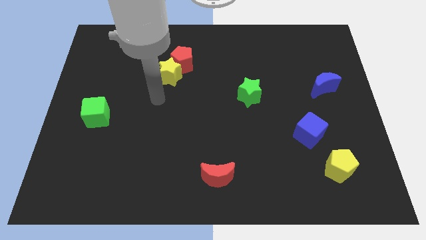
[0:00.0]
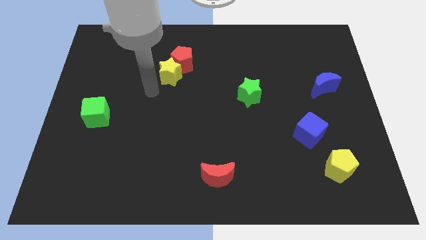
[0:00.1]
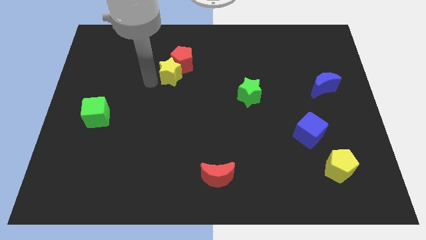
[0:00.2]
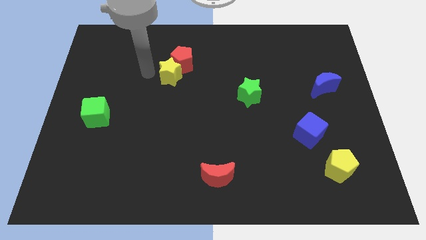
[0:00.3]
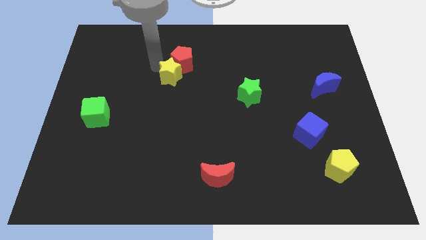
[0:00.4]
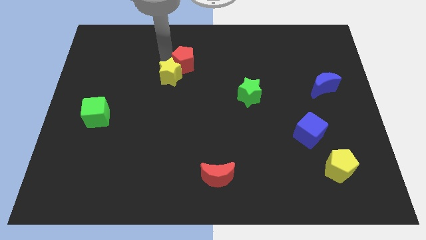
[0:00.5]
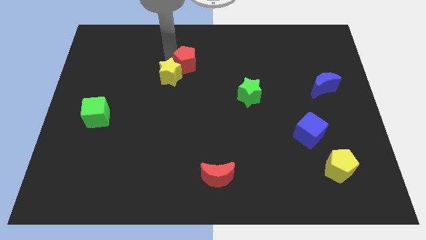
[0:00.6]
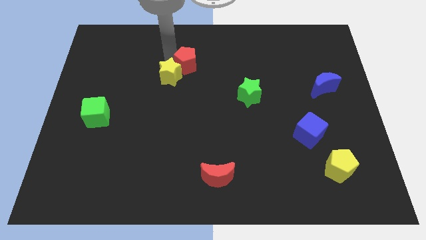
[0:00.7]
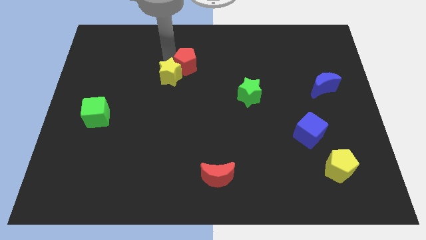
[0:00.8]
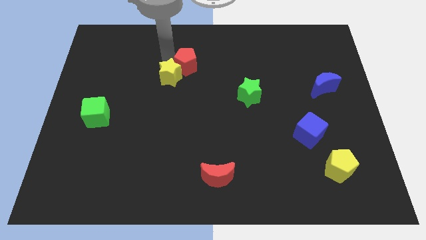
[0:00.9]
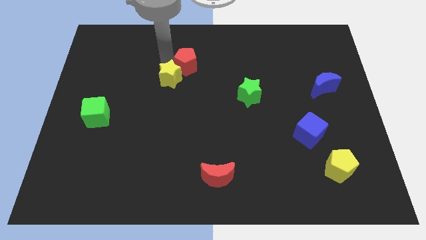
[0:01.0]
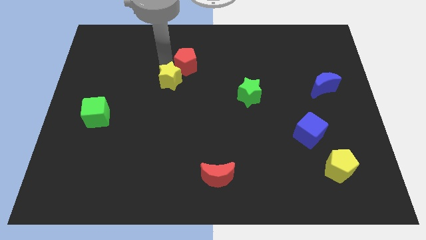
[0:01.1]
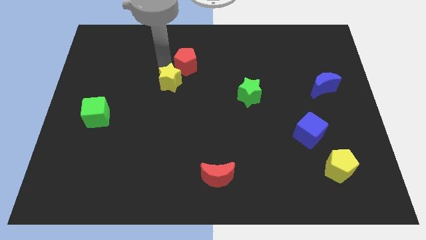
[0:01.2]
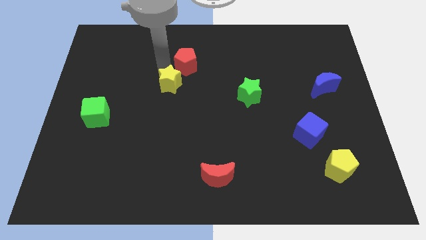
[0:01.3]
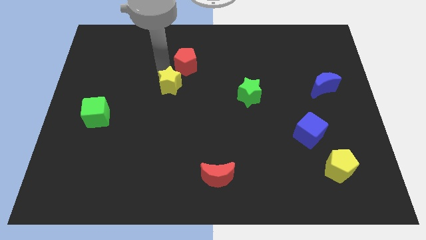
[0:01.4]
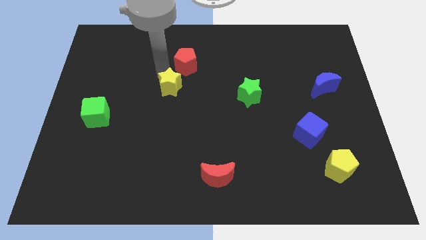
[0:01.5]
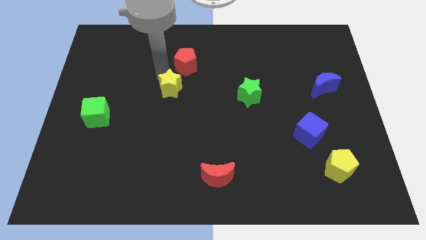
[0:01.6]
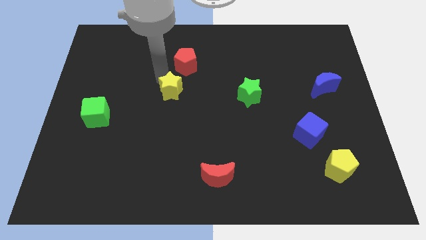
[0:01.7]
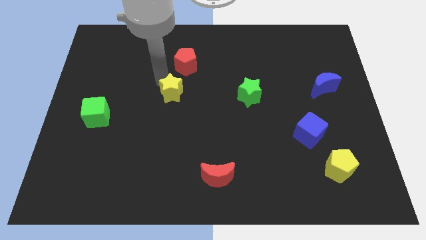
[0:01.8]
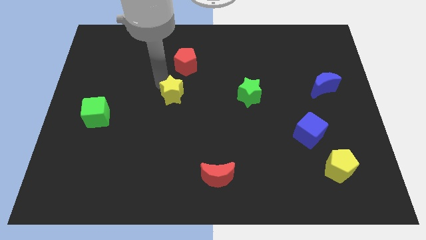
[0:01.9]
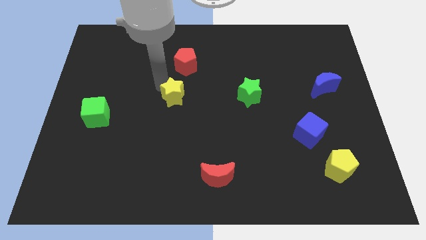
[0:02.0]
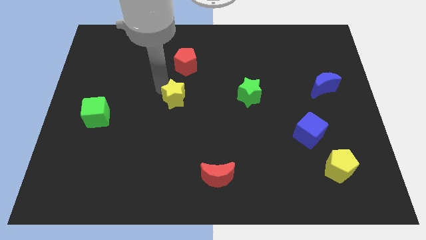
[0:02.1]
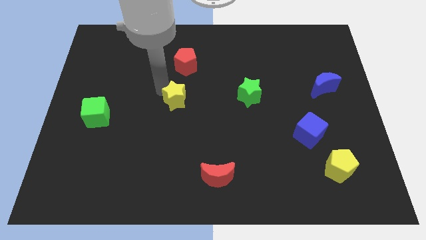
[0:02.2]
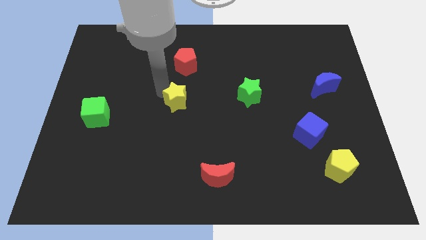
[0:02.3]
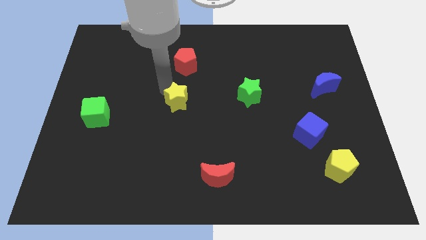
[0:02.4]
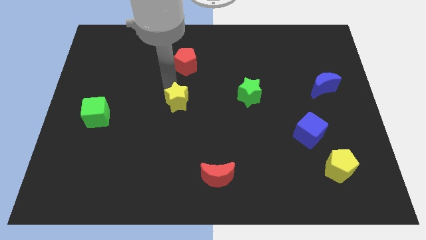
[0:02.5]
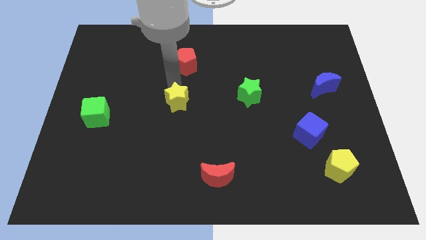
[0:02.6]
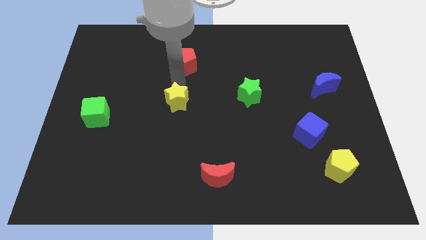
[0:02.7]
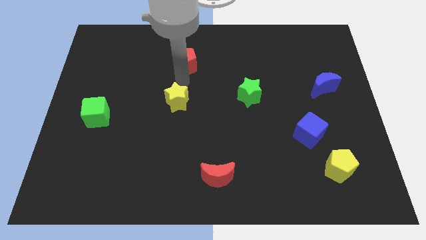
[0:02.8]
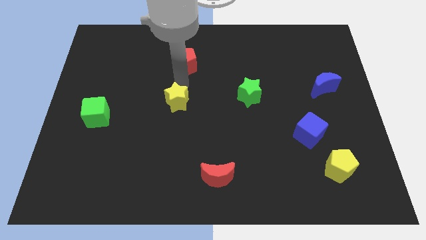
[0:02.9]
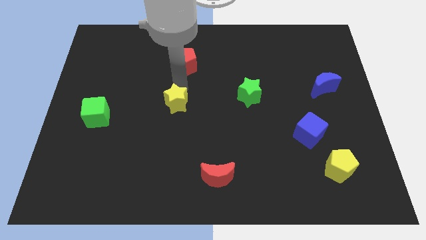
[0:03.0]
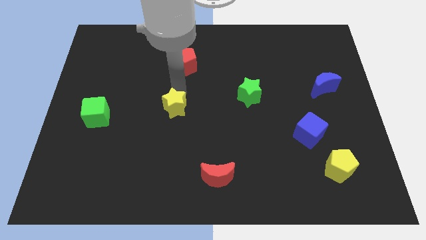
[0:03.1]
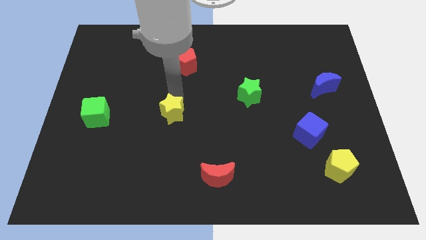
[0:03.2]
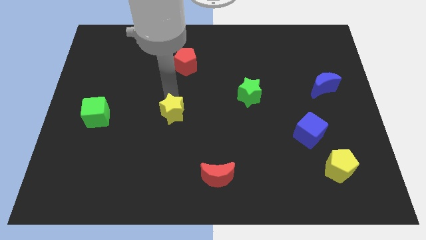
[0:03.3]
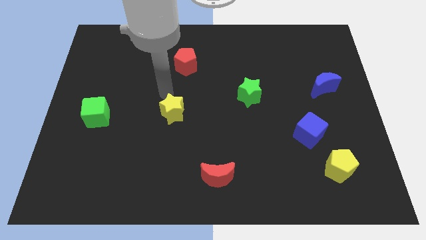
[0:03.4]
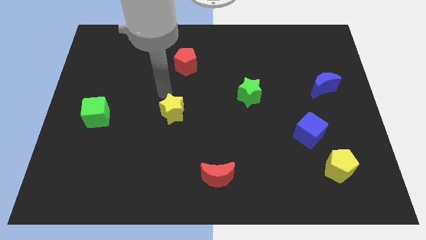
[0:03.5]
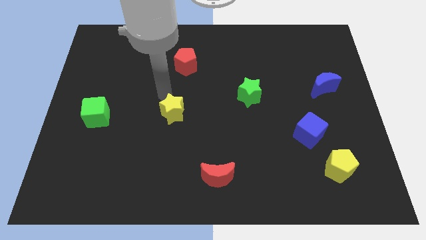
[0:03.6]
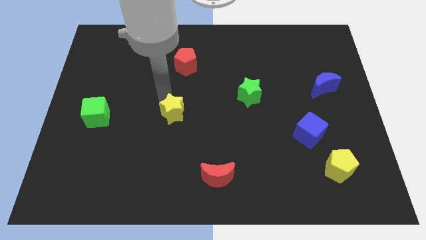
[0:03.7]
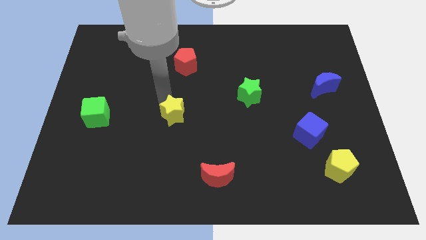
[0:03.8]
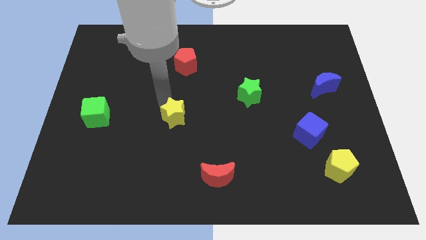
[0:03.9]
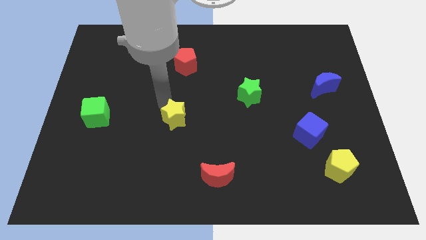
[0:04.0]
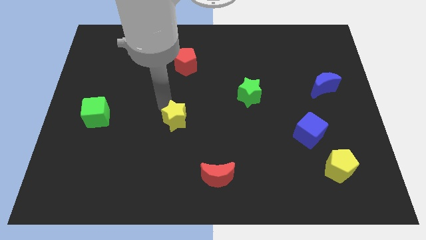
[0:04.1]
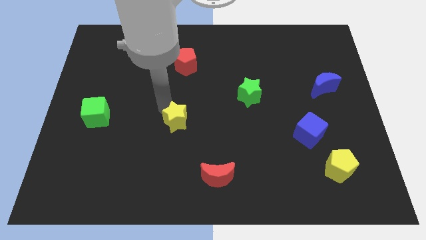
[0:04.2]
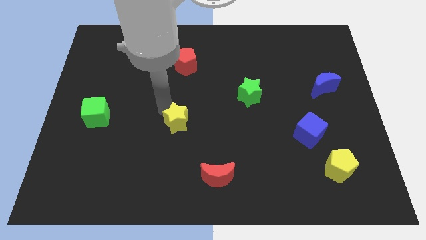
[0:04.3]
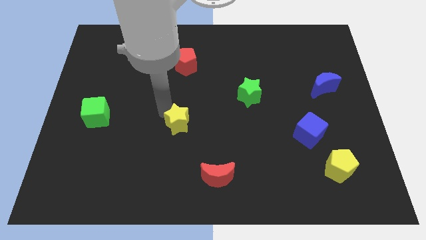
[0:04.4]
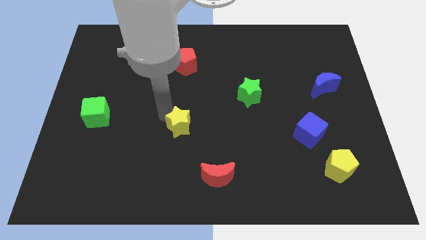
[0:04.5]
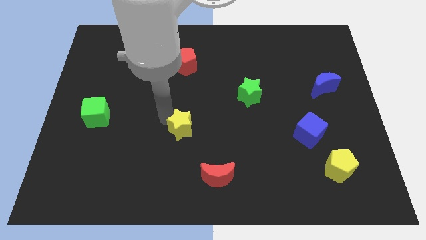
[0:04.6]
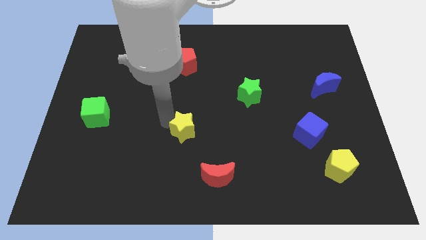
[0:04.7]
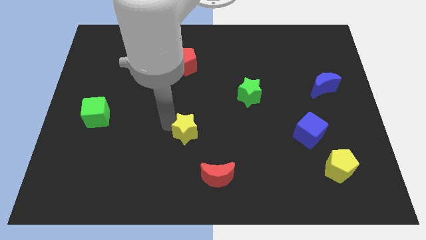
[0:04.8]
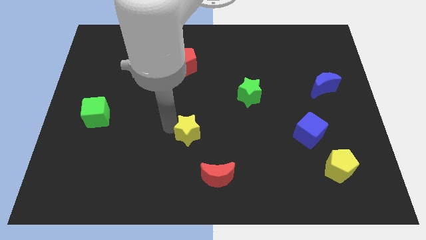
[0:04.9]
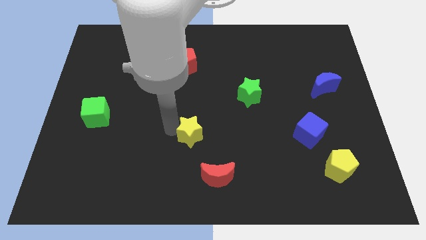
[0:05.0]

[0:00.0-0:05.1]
put the yellow star to the top left side of the red moon

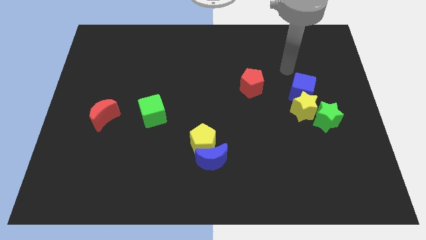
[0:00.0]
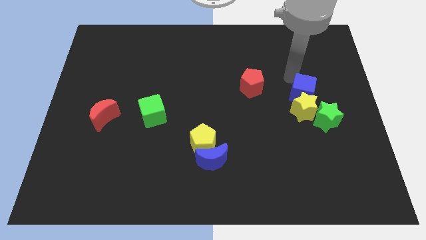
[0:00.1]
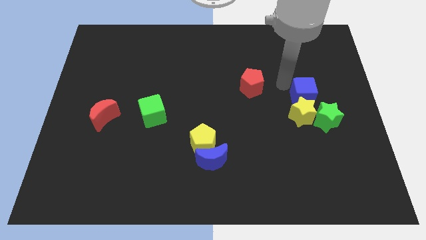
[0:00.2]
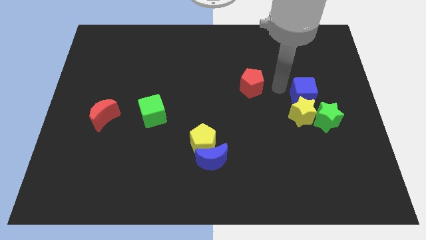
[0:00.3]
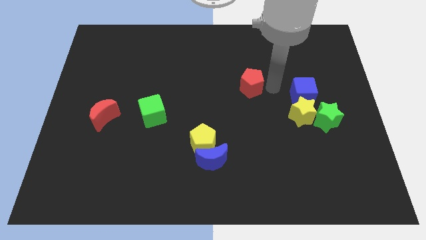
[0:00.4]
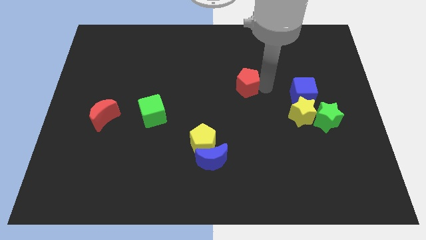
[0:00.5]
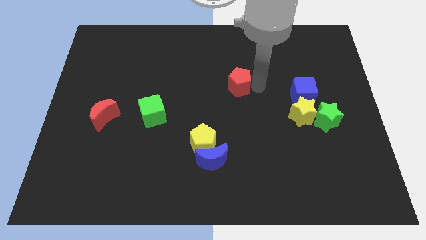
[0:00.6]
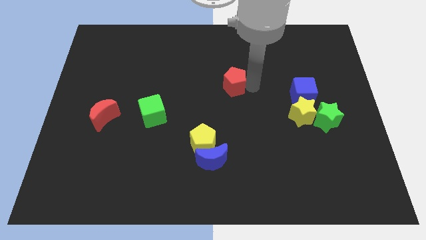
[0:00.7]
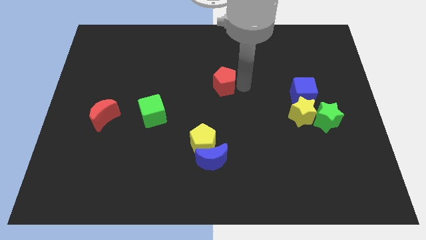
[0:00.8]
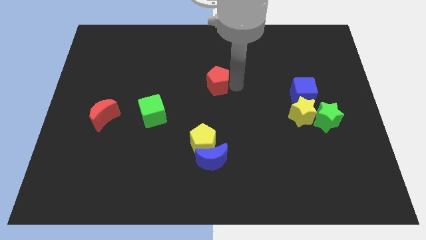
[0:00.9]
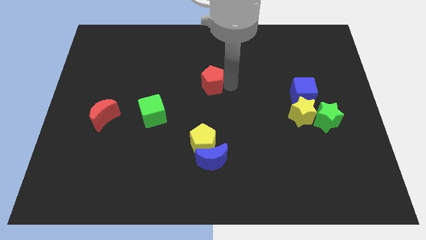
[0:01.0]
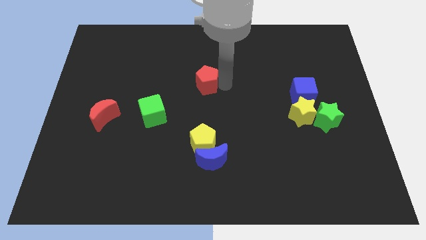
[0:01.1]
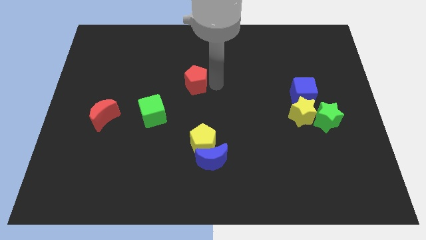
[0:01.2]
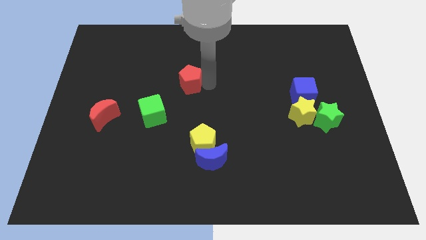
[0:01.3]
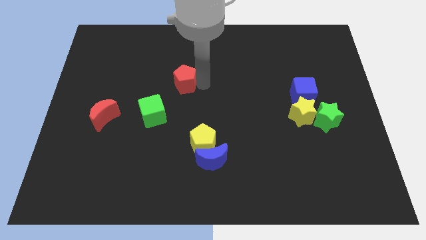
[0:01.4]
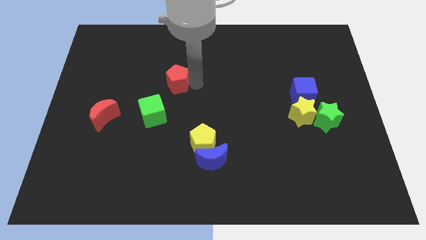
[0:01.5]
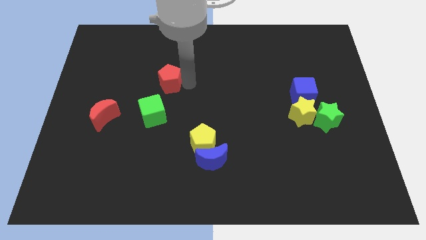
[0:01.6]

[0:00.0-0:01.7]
slide the red pentagon to the top side of the green cube

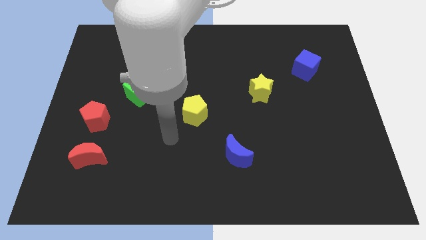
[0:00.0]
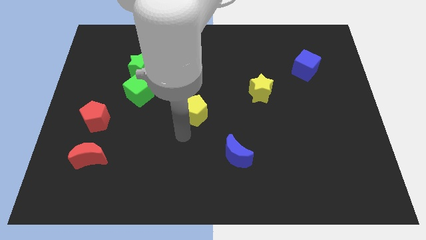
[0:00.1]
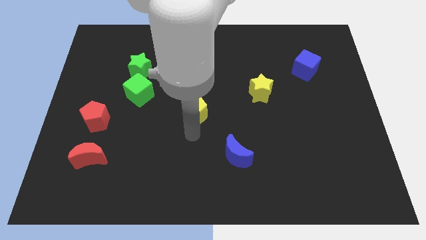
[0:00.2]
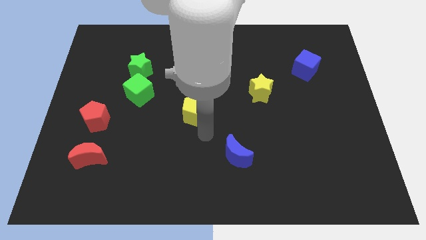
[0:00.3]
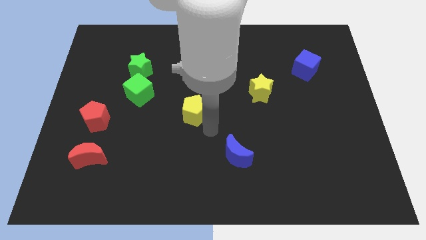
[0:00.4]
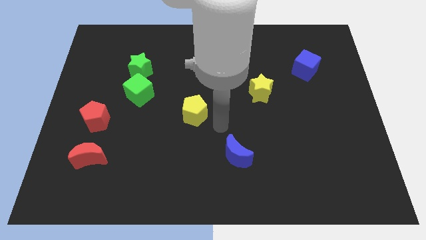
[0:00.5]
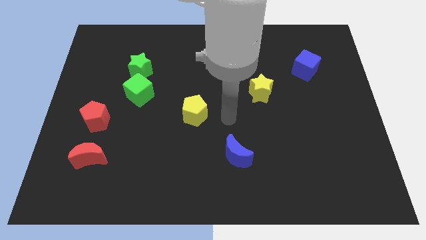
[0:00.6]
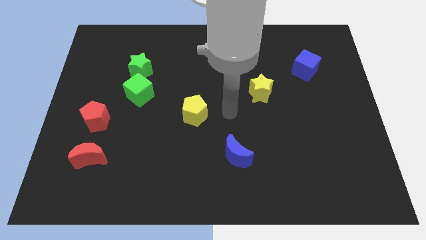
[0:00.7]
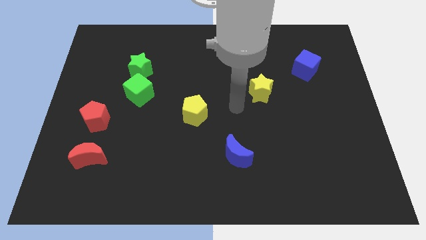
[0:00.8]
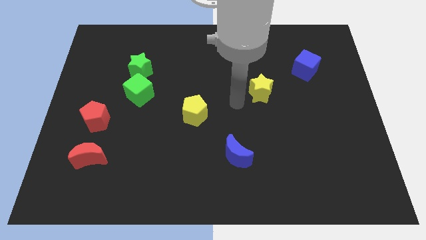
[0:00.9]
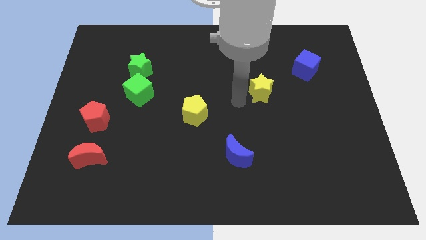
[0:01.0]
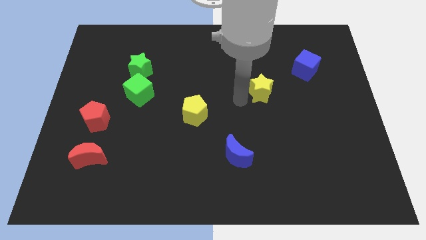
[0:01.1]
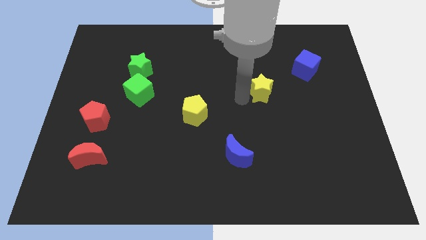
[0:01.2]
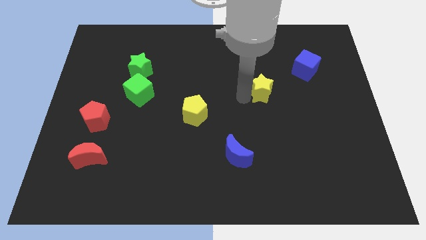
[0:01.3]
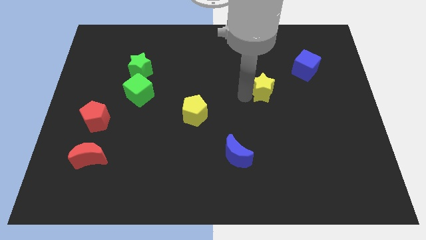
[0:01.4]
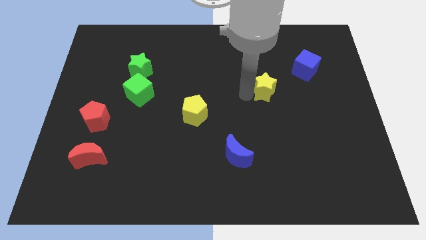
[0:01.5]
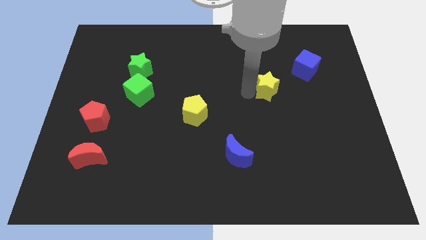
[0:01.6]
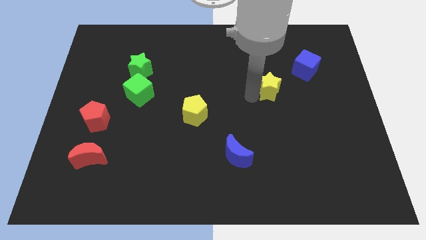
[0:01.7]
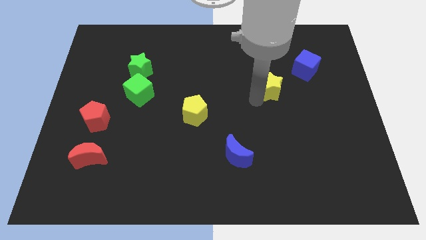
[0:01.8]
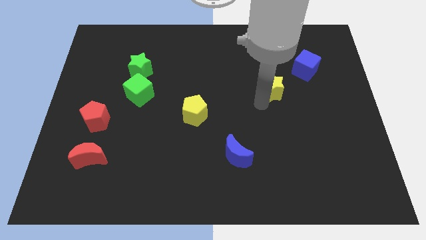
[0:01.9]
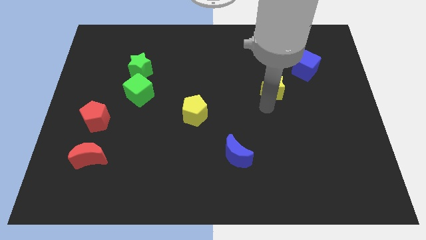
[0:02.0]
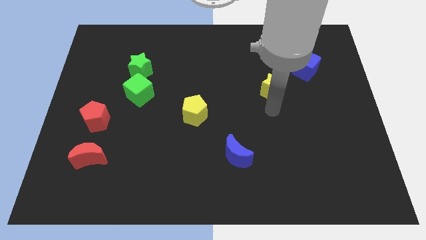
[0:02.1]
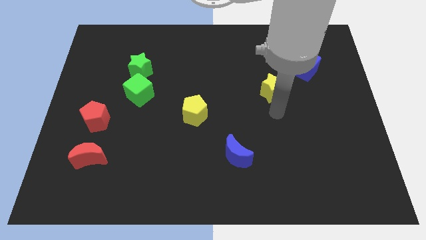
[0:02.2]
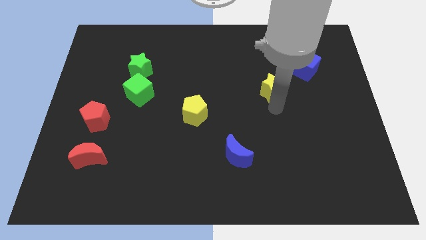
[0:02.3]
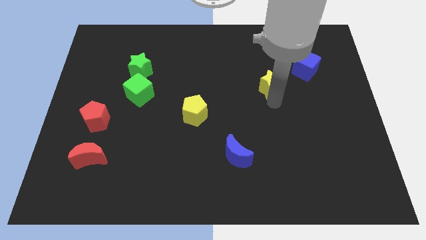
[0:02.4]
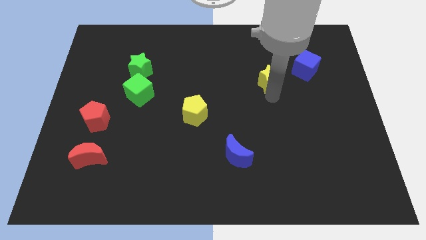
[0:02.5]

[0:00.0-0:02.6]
put the yellow star to the left side of the blue cube
